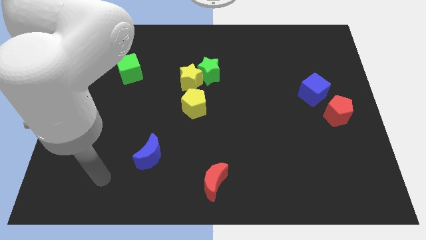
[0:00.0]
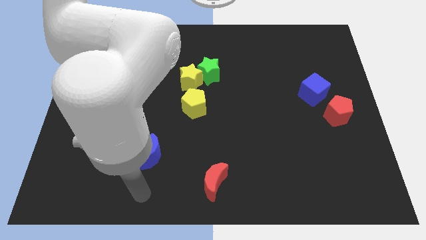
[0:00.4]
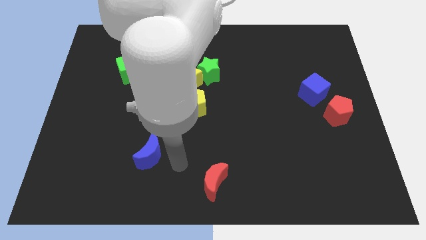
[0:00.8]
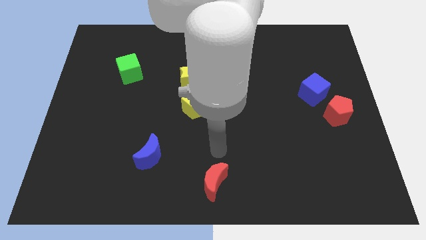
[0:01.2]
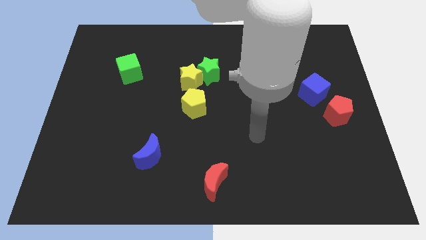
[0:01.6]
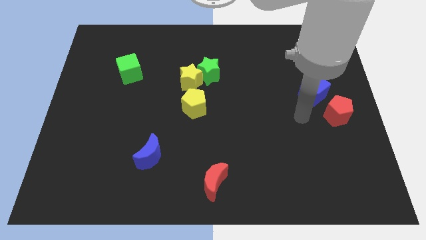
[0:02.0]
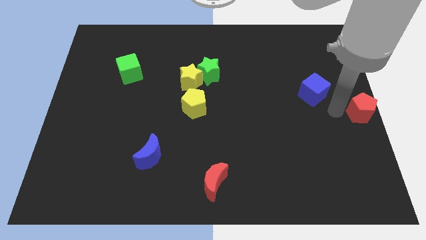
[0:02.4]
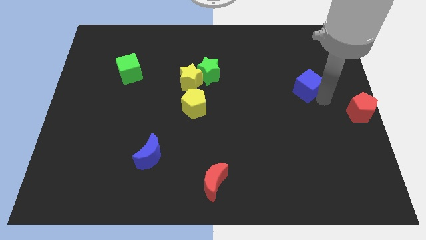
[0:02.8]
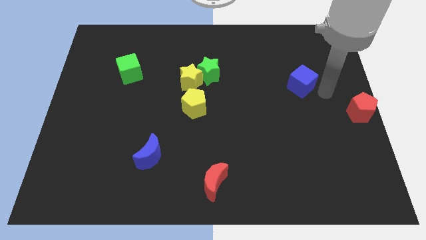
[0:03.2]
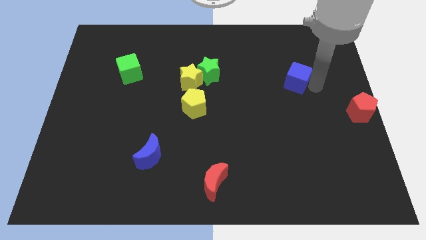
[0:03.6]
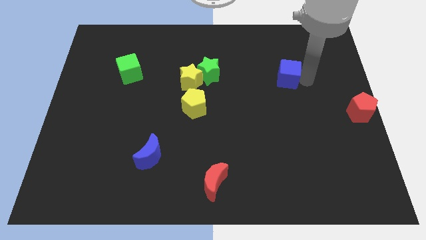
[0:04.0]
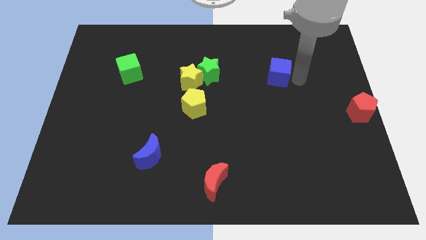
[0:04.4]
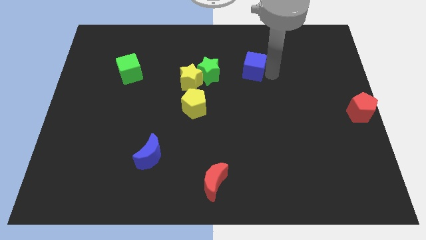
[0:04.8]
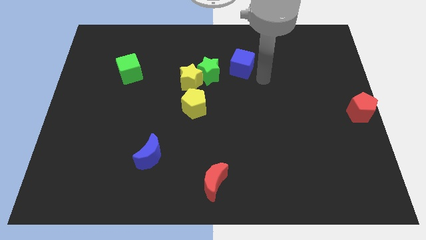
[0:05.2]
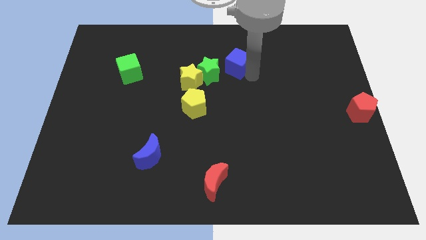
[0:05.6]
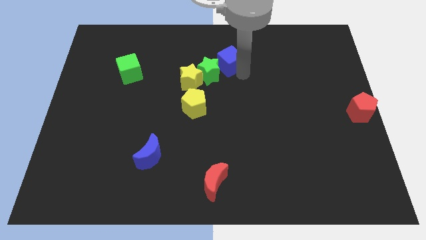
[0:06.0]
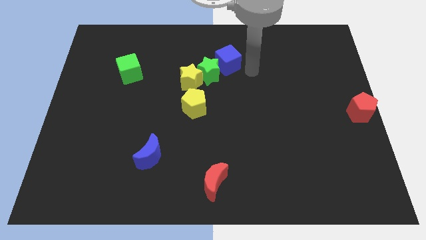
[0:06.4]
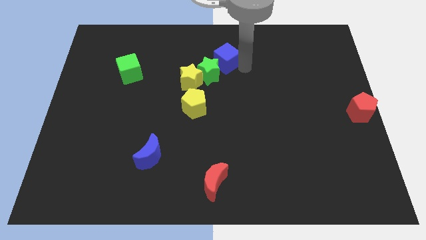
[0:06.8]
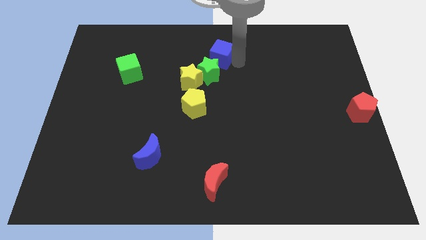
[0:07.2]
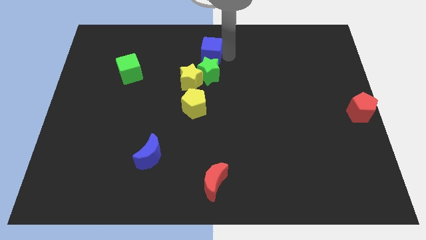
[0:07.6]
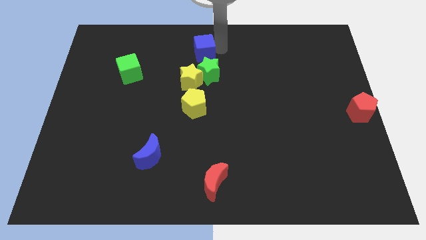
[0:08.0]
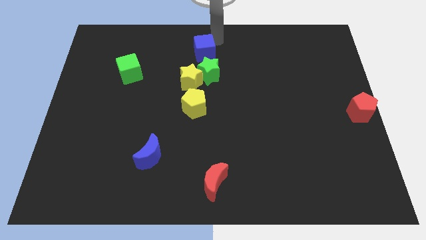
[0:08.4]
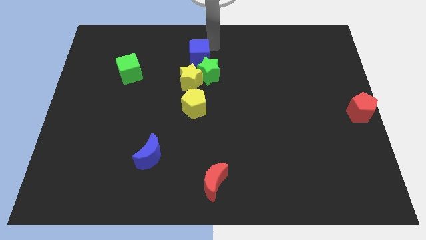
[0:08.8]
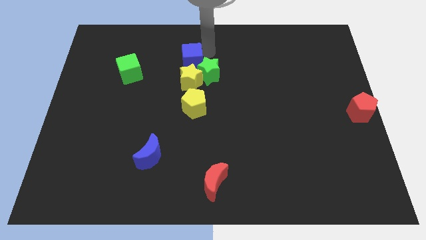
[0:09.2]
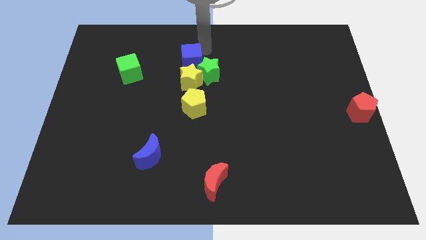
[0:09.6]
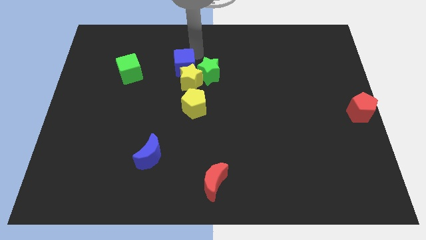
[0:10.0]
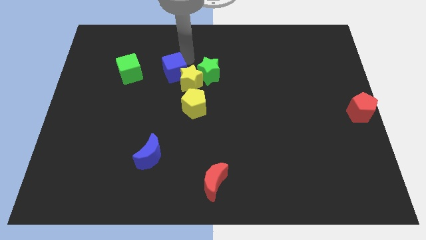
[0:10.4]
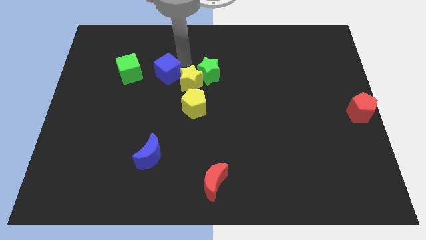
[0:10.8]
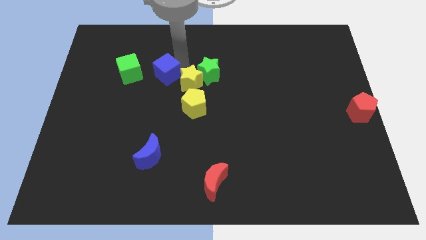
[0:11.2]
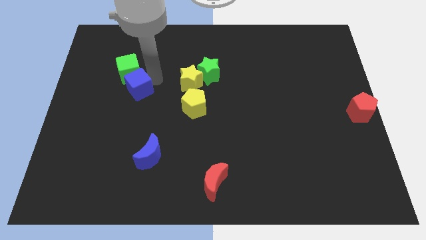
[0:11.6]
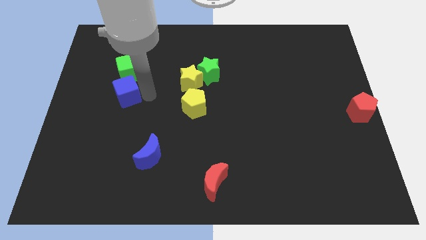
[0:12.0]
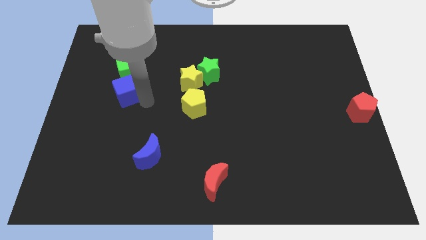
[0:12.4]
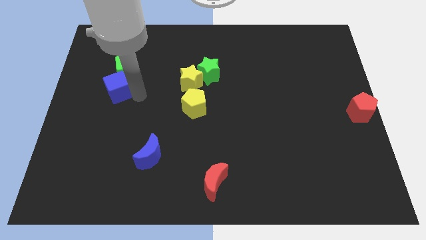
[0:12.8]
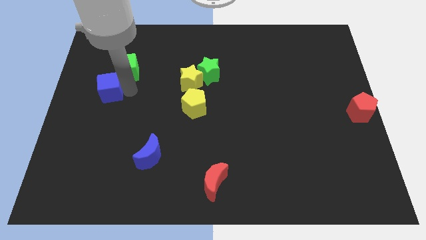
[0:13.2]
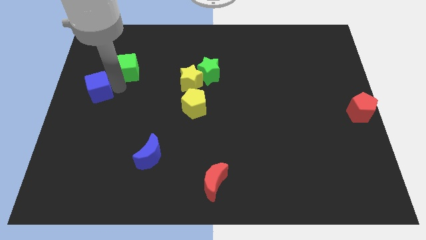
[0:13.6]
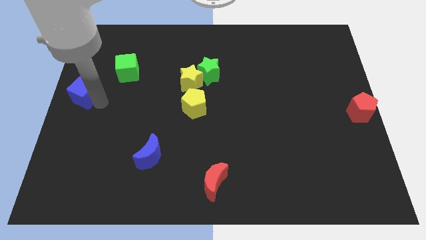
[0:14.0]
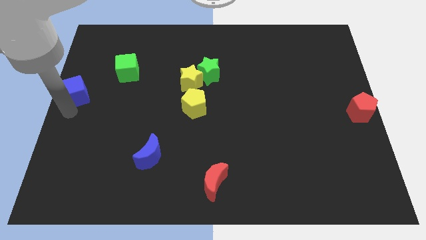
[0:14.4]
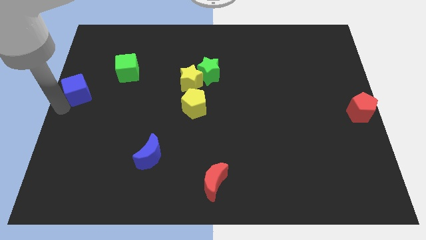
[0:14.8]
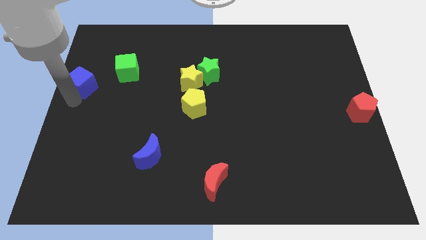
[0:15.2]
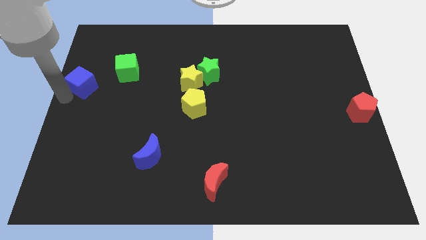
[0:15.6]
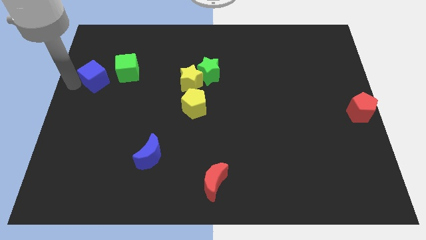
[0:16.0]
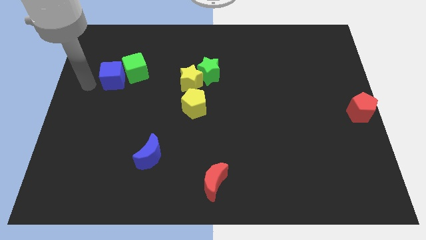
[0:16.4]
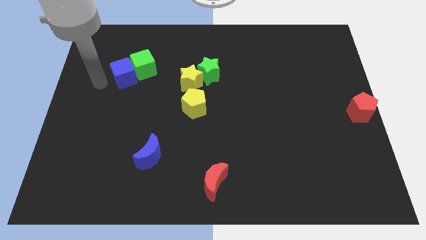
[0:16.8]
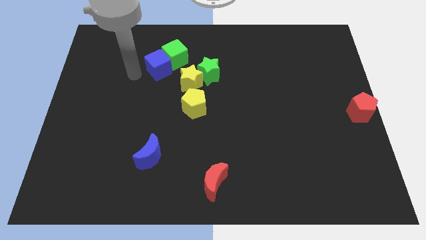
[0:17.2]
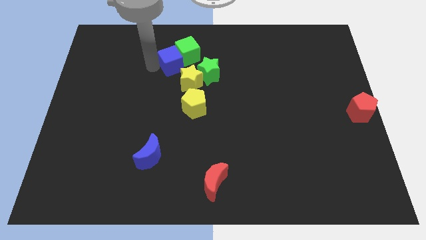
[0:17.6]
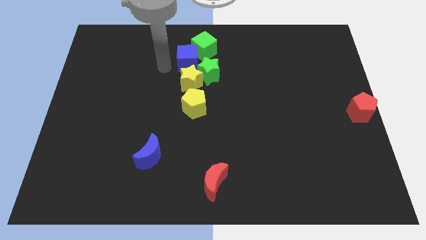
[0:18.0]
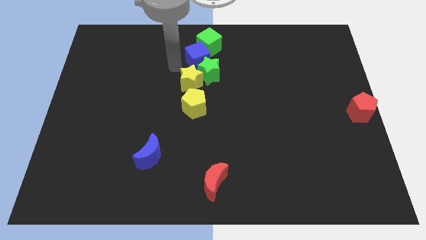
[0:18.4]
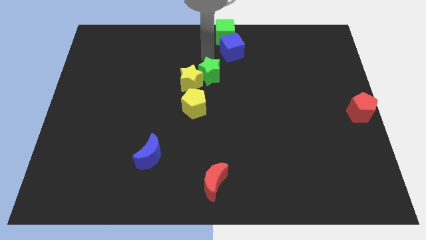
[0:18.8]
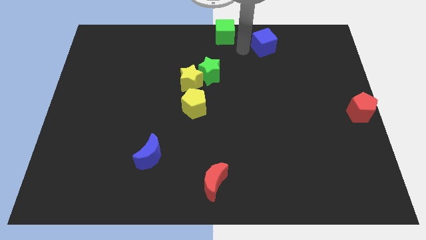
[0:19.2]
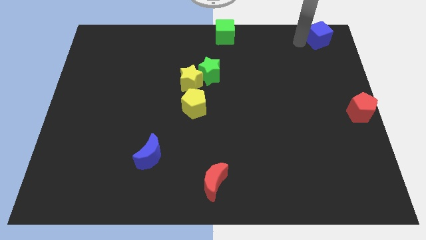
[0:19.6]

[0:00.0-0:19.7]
slide the blue cube to the top right of the board

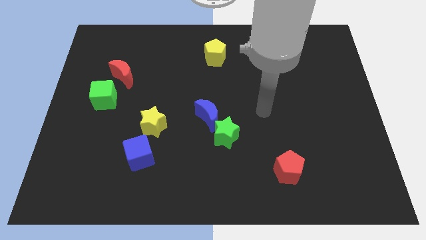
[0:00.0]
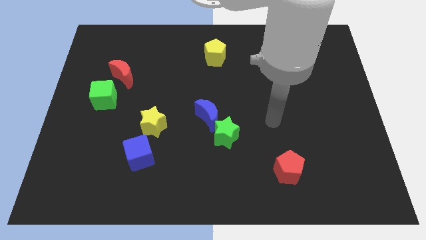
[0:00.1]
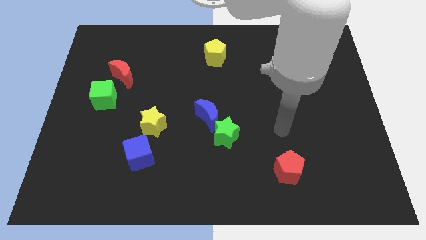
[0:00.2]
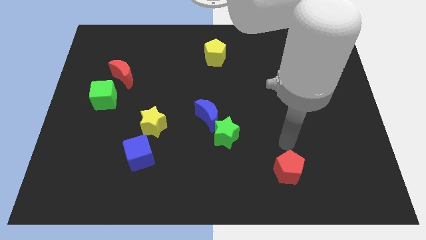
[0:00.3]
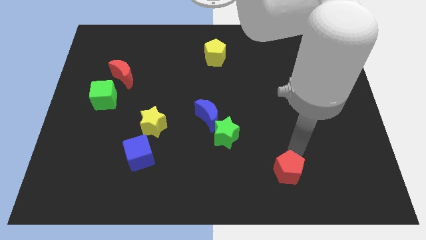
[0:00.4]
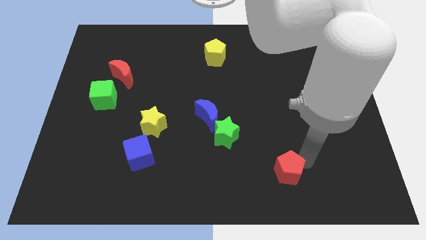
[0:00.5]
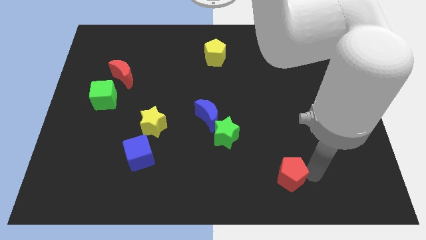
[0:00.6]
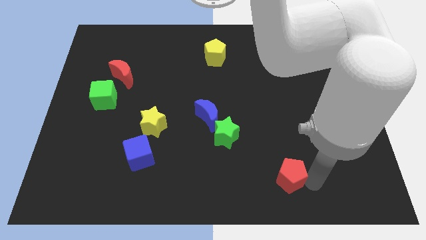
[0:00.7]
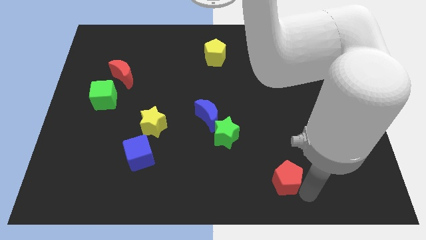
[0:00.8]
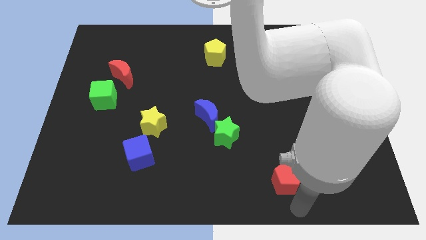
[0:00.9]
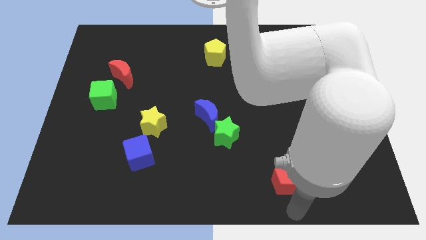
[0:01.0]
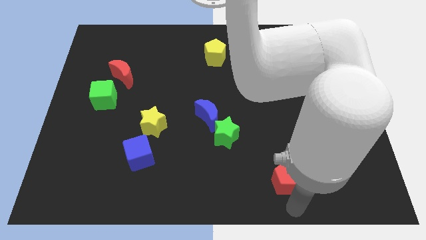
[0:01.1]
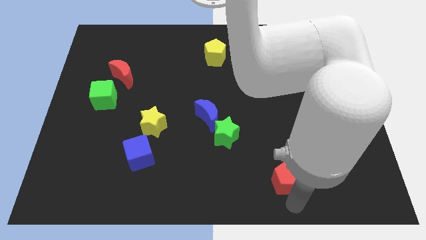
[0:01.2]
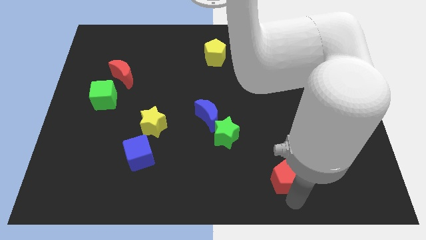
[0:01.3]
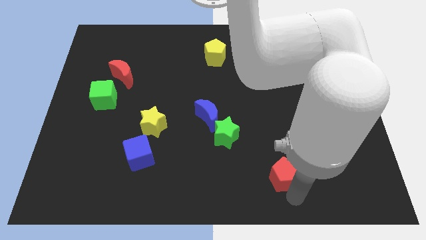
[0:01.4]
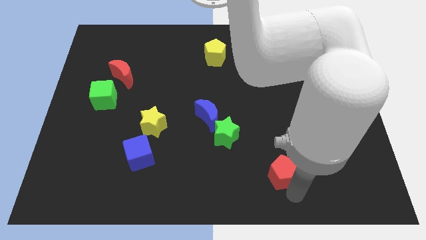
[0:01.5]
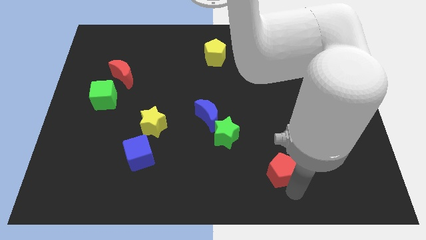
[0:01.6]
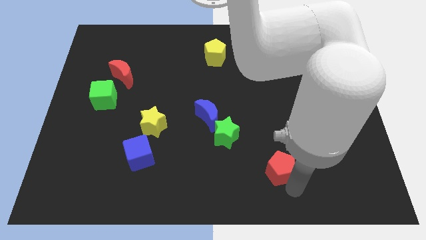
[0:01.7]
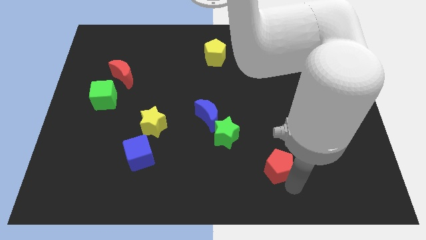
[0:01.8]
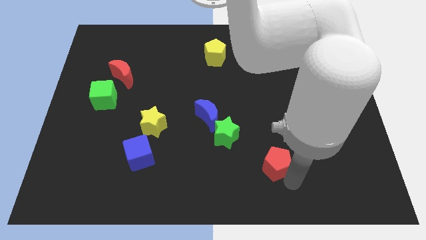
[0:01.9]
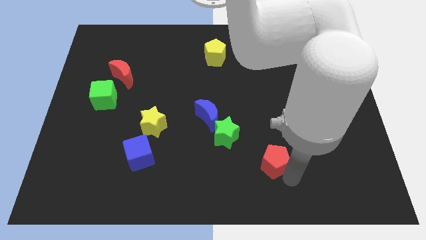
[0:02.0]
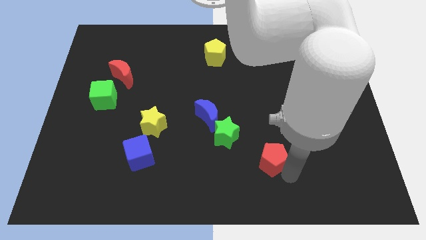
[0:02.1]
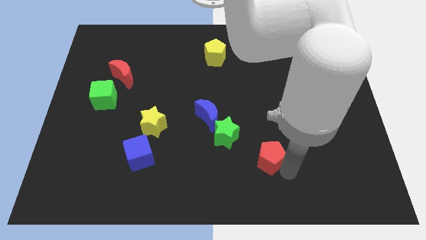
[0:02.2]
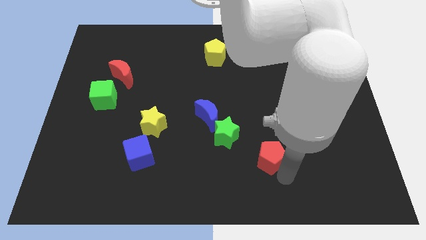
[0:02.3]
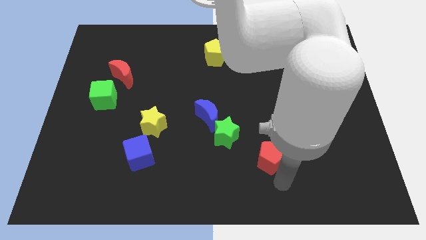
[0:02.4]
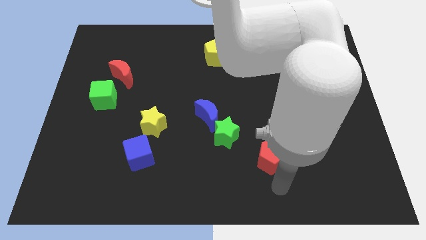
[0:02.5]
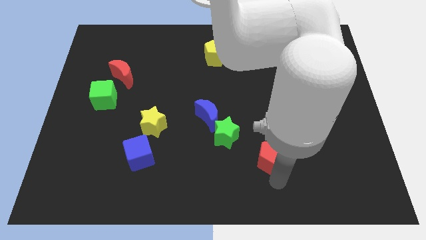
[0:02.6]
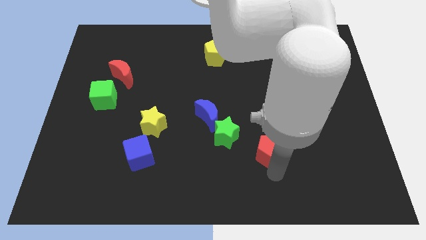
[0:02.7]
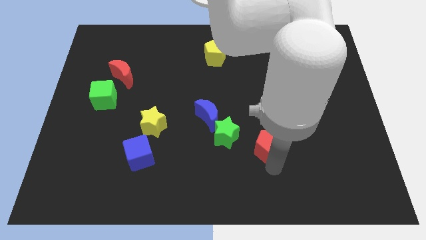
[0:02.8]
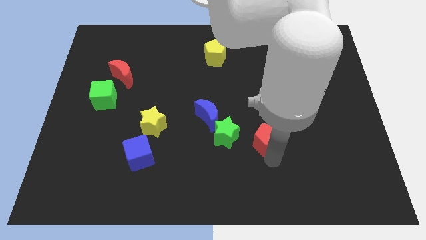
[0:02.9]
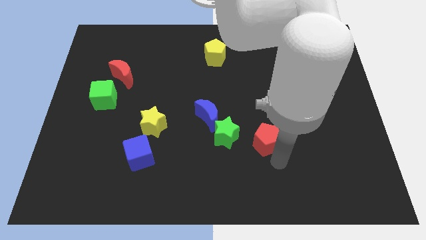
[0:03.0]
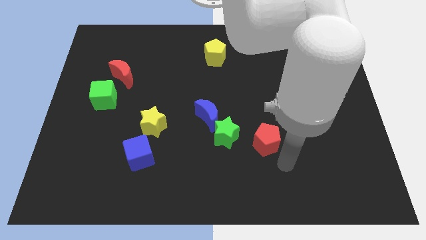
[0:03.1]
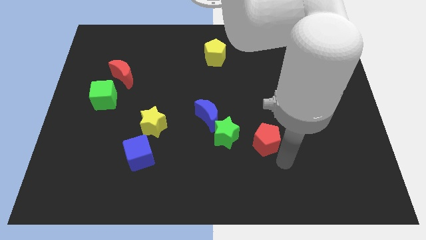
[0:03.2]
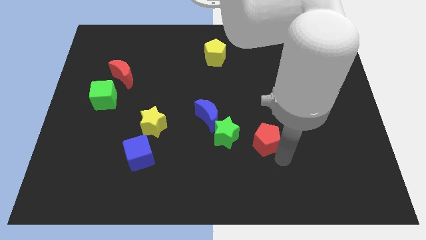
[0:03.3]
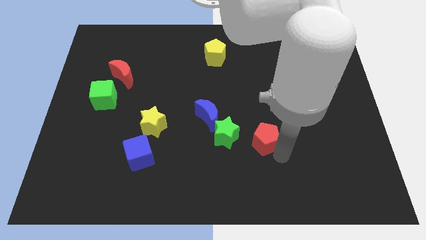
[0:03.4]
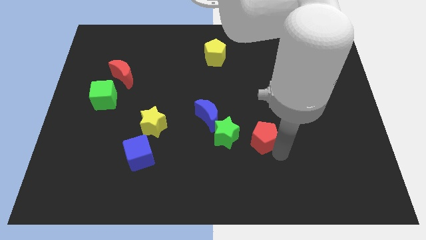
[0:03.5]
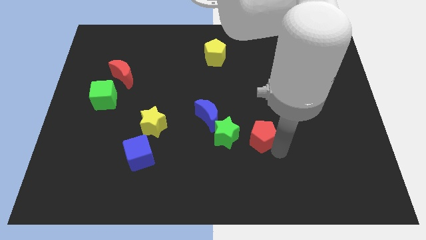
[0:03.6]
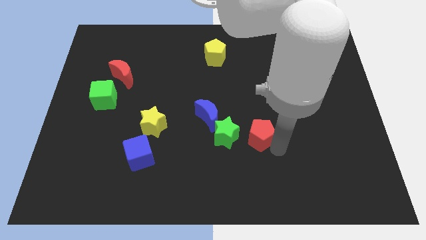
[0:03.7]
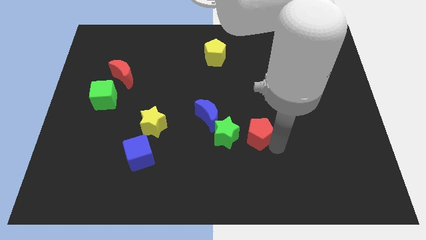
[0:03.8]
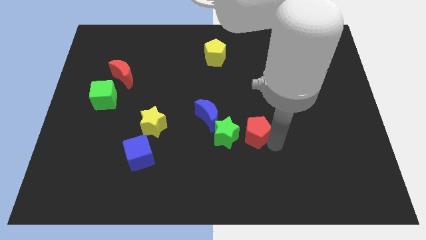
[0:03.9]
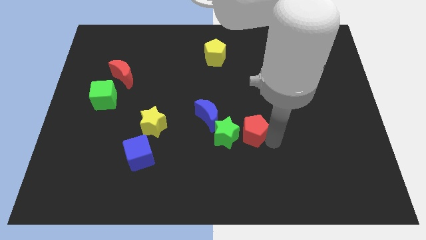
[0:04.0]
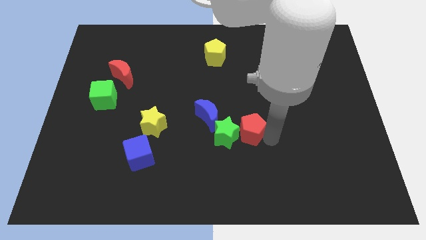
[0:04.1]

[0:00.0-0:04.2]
move the red pentagon to the middle
